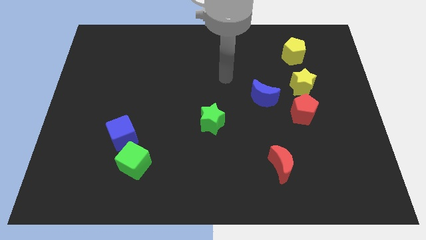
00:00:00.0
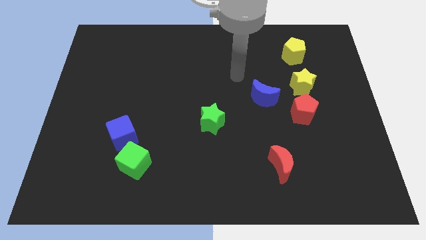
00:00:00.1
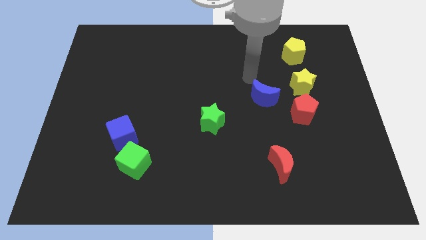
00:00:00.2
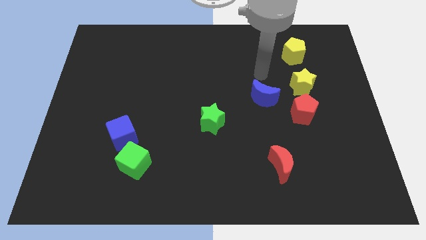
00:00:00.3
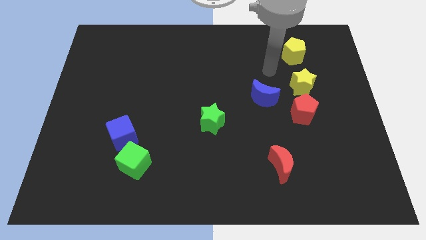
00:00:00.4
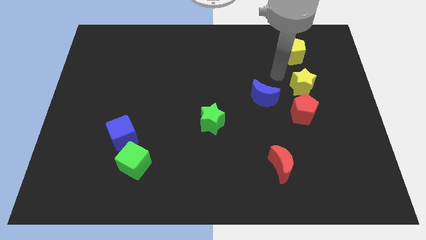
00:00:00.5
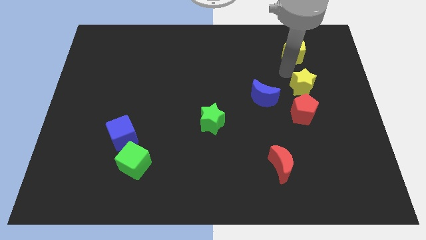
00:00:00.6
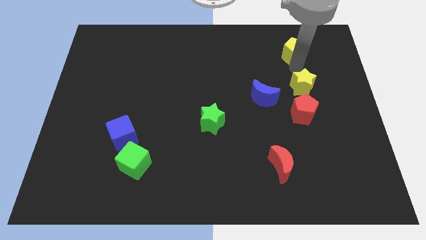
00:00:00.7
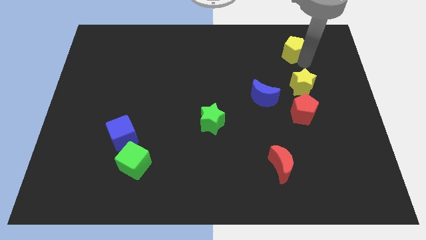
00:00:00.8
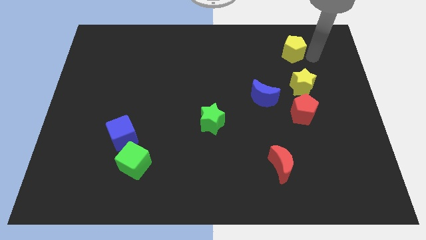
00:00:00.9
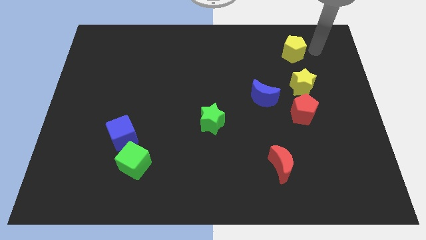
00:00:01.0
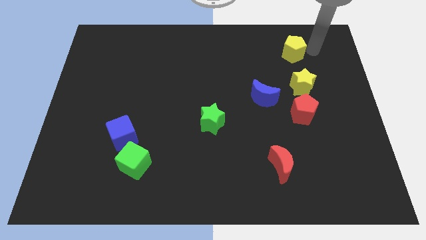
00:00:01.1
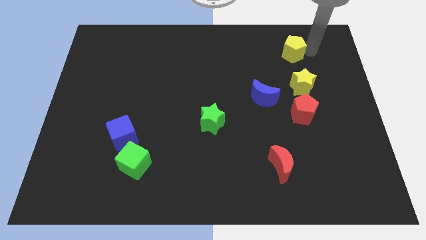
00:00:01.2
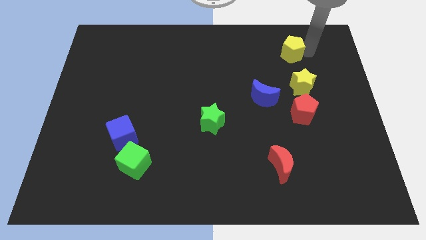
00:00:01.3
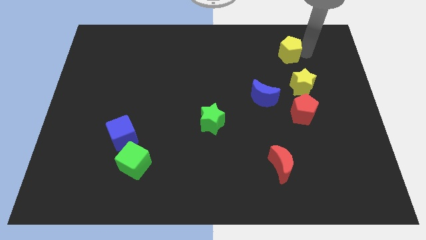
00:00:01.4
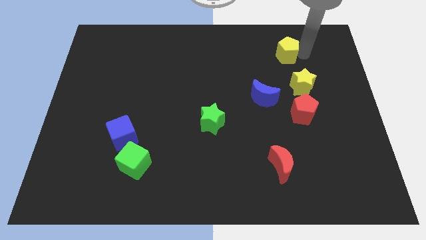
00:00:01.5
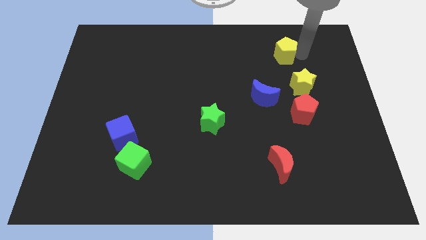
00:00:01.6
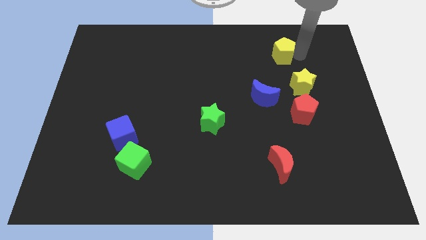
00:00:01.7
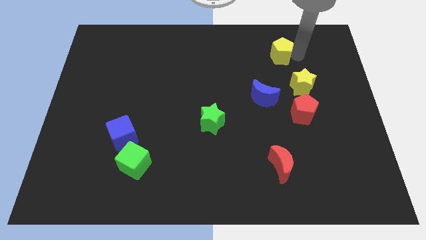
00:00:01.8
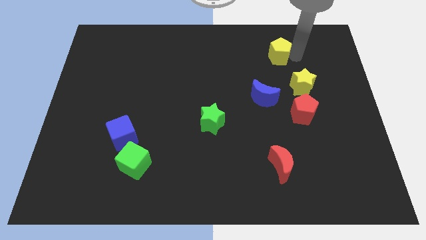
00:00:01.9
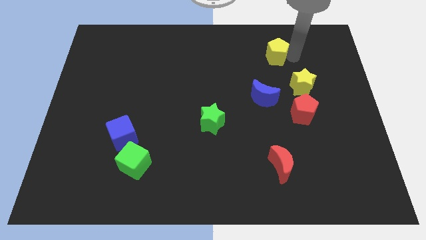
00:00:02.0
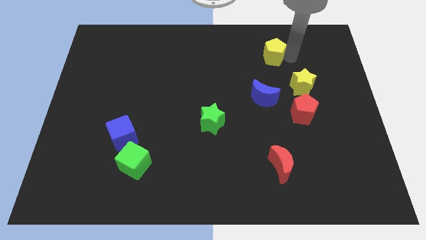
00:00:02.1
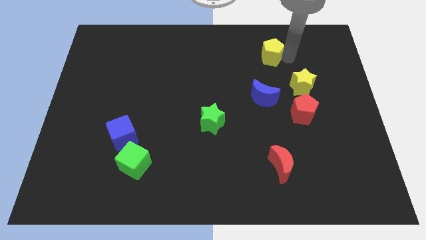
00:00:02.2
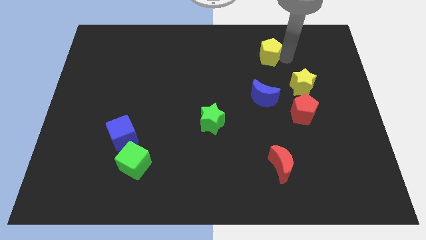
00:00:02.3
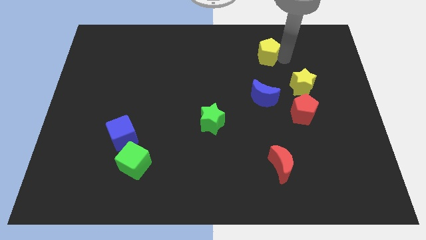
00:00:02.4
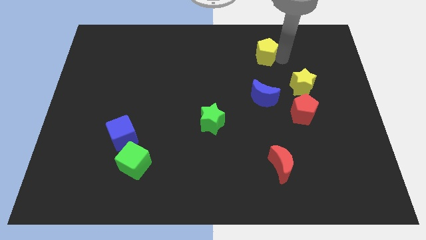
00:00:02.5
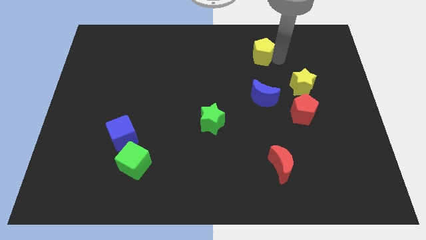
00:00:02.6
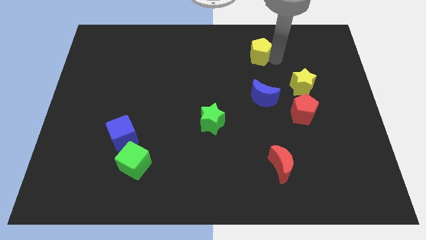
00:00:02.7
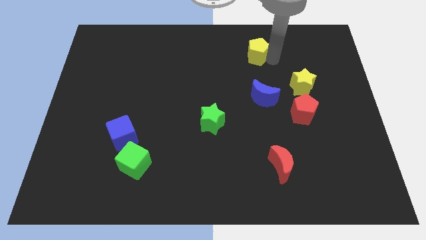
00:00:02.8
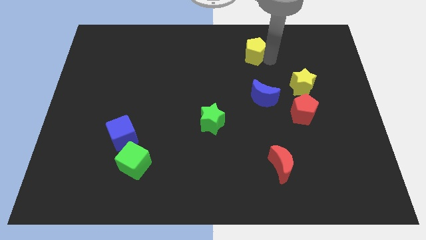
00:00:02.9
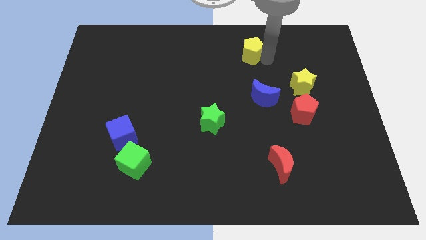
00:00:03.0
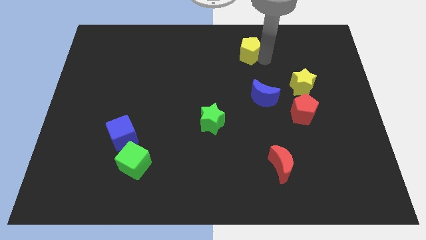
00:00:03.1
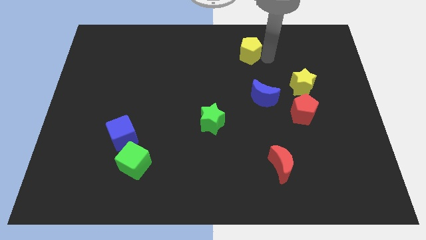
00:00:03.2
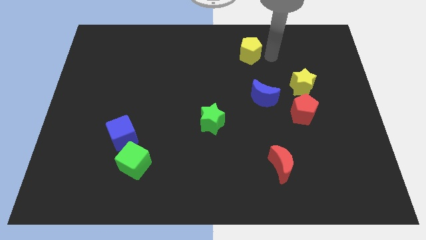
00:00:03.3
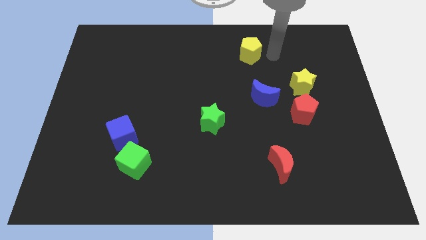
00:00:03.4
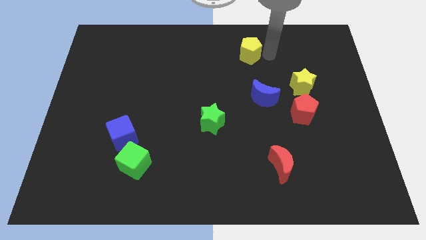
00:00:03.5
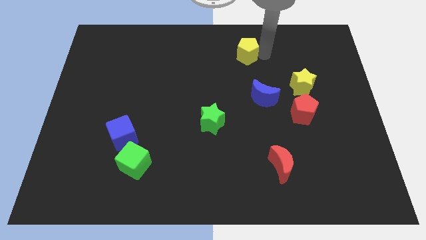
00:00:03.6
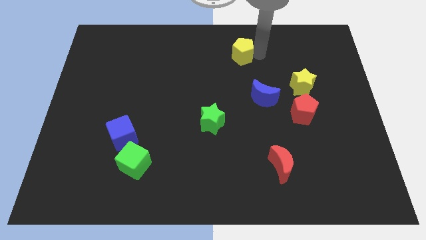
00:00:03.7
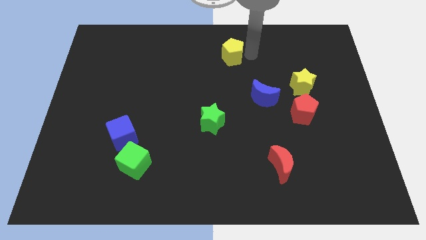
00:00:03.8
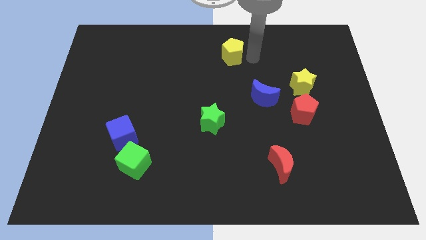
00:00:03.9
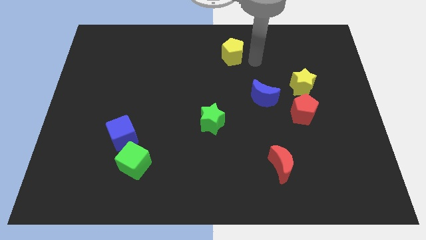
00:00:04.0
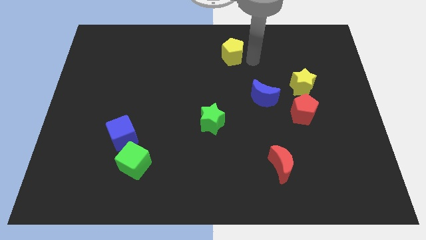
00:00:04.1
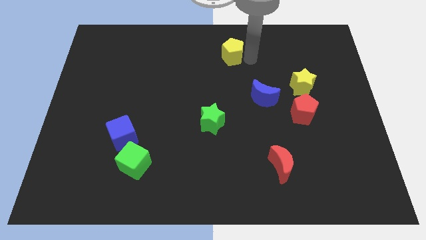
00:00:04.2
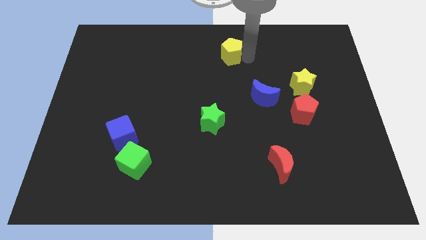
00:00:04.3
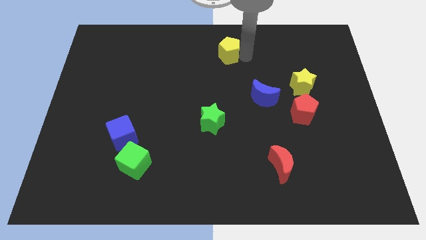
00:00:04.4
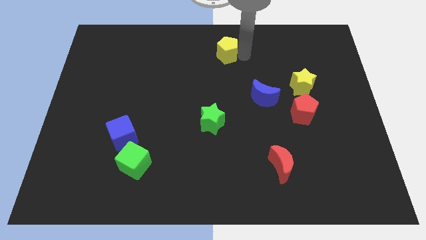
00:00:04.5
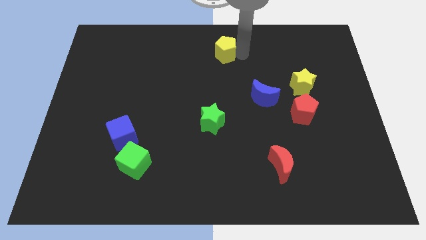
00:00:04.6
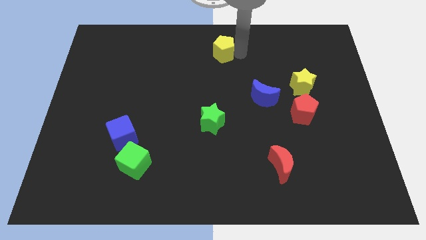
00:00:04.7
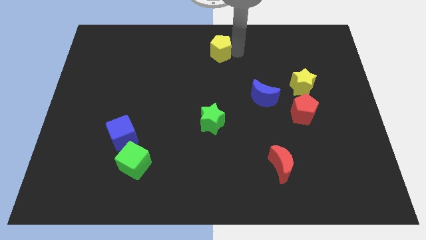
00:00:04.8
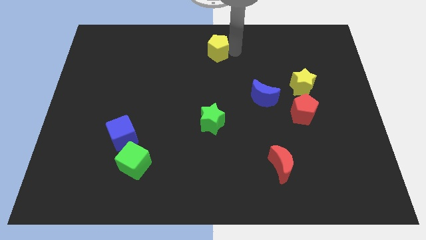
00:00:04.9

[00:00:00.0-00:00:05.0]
move the yellow pentagon to the left

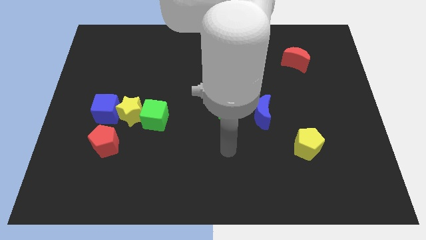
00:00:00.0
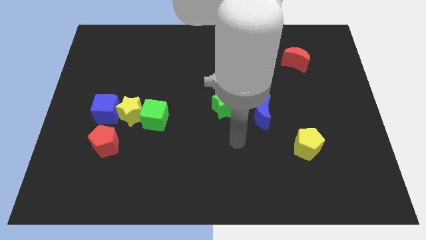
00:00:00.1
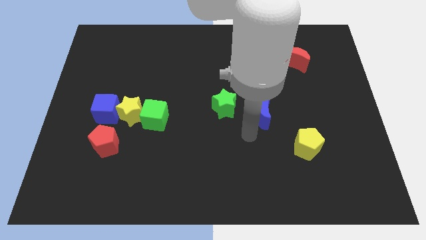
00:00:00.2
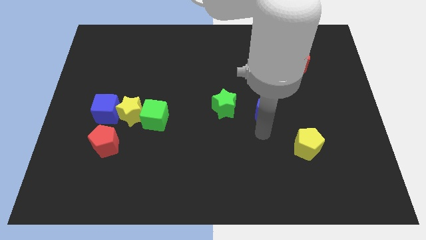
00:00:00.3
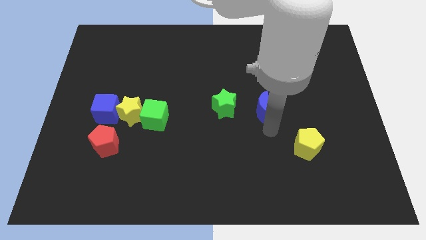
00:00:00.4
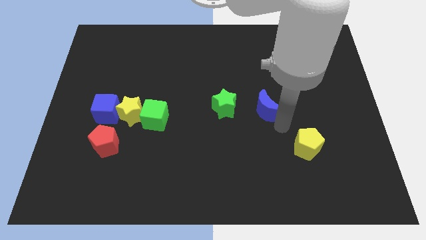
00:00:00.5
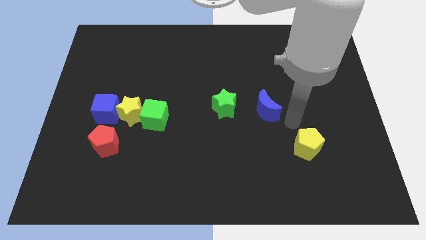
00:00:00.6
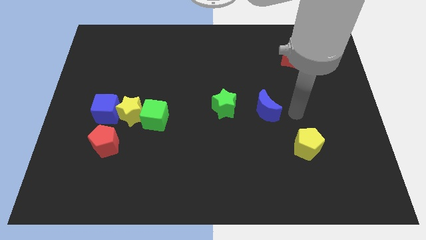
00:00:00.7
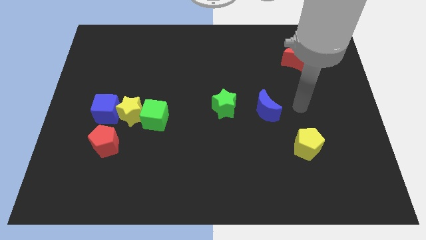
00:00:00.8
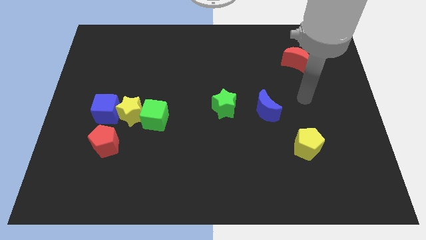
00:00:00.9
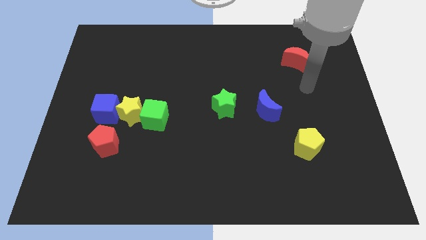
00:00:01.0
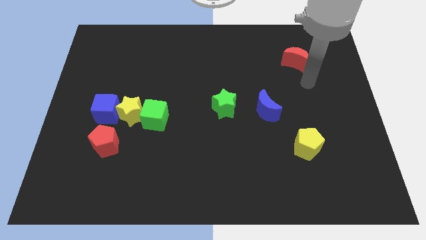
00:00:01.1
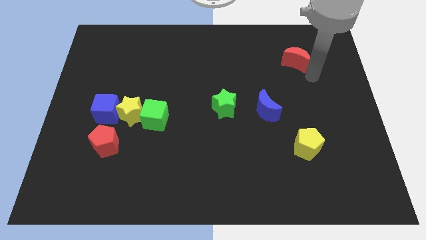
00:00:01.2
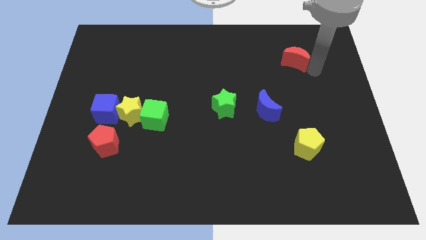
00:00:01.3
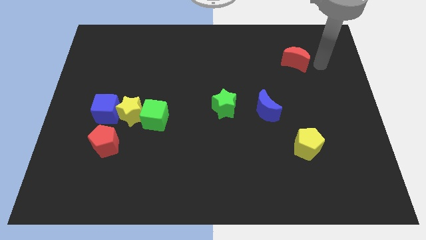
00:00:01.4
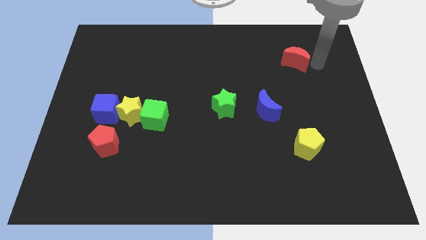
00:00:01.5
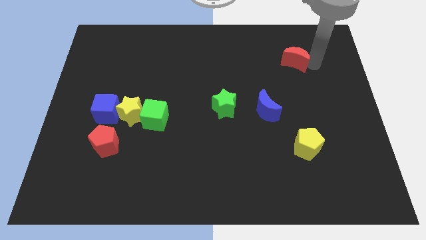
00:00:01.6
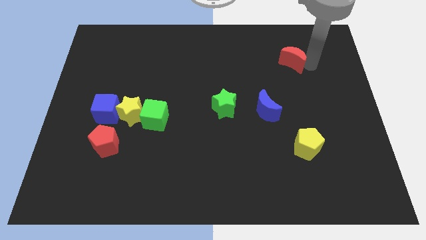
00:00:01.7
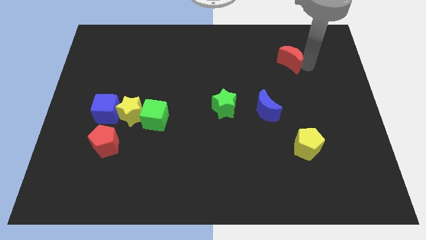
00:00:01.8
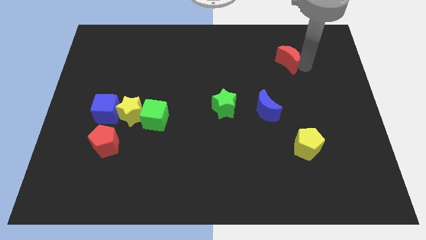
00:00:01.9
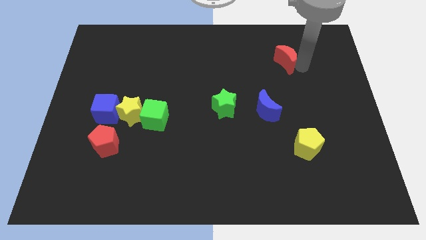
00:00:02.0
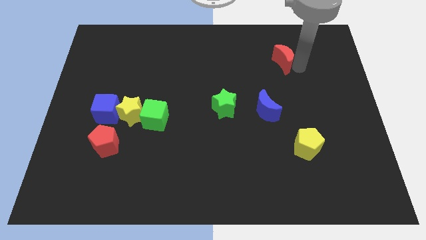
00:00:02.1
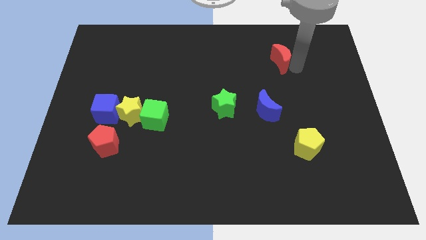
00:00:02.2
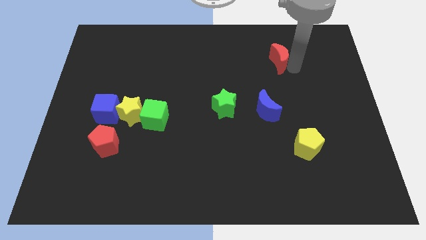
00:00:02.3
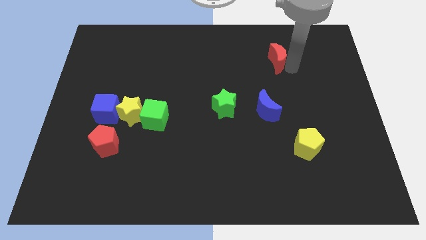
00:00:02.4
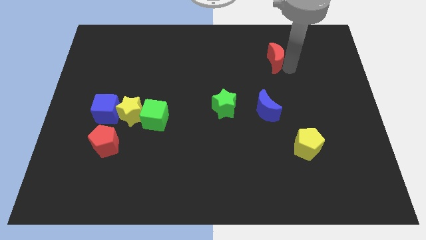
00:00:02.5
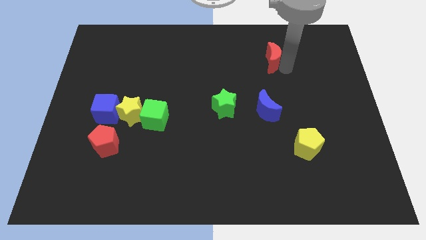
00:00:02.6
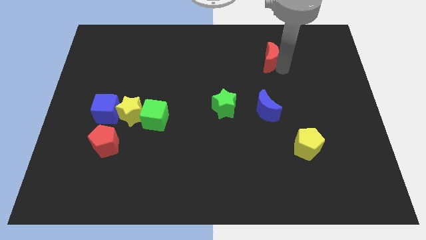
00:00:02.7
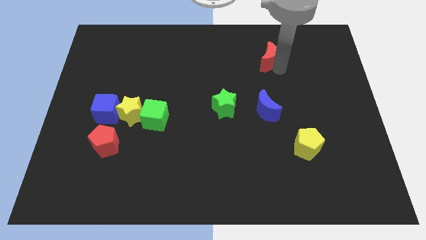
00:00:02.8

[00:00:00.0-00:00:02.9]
slightly slide the red moon left

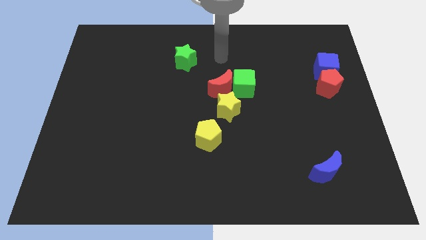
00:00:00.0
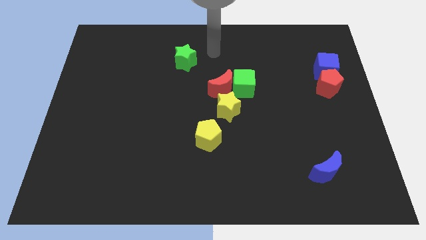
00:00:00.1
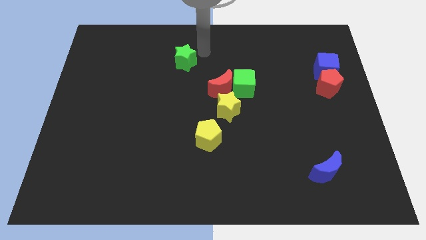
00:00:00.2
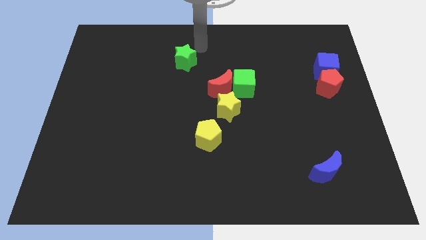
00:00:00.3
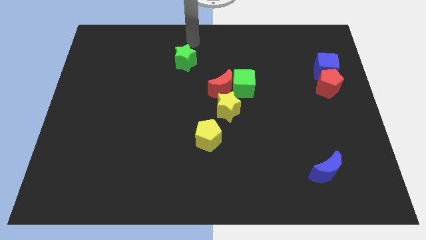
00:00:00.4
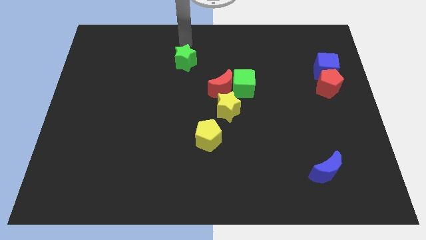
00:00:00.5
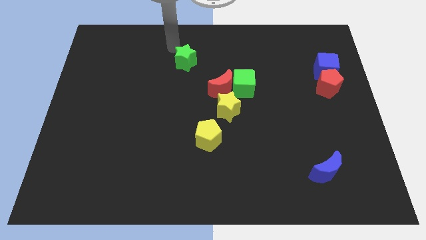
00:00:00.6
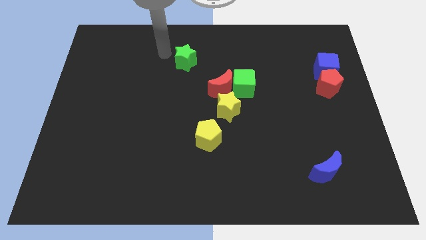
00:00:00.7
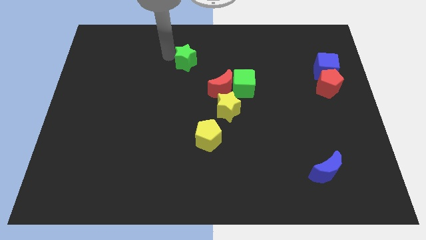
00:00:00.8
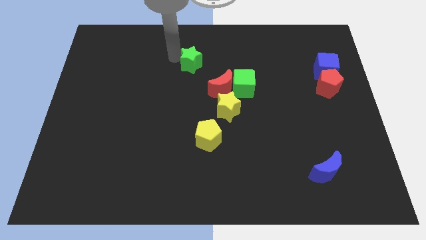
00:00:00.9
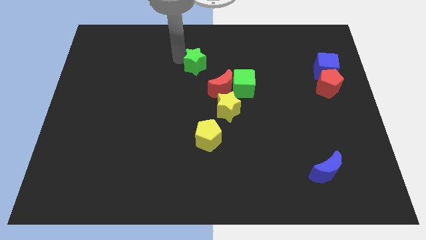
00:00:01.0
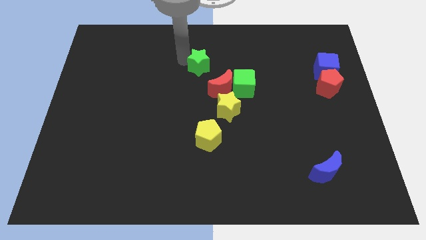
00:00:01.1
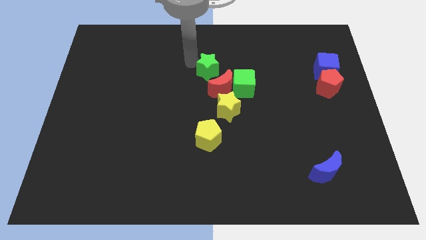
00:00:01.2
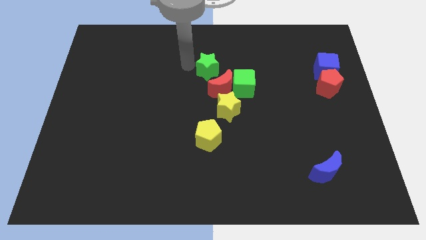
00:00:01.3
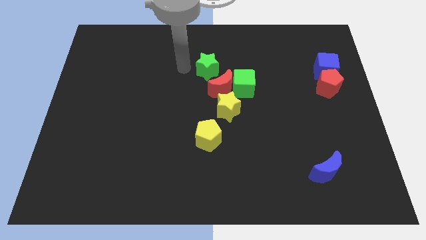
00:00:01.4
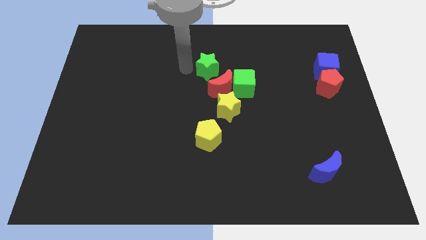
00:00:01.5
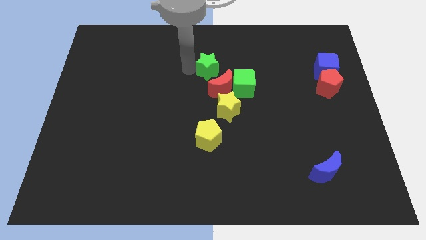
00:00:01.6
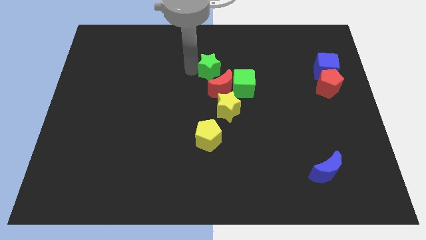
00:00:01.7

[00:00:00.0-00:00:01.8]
push the green star downwards and right diagonally a little bit
